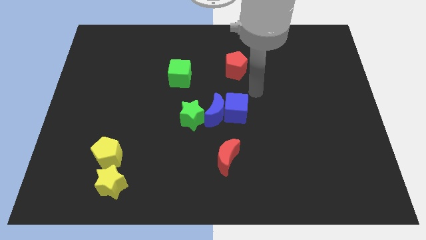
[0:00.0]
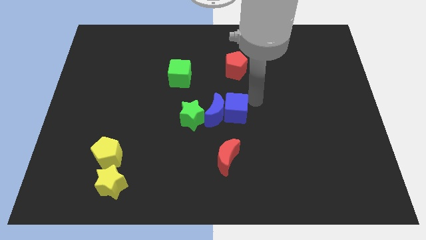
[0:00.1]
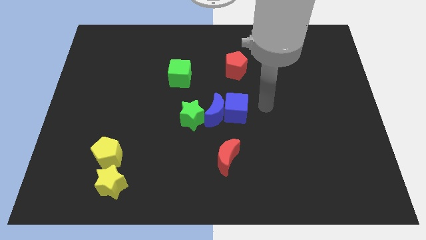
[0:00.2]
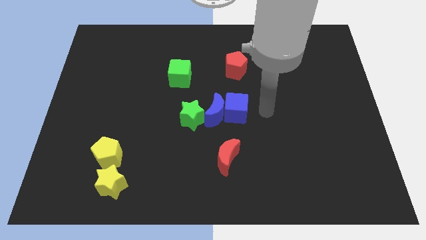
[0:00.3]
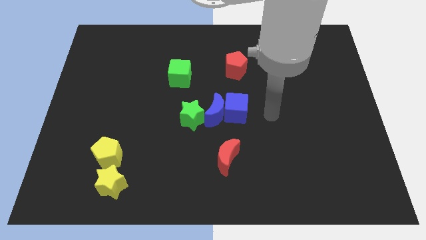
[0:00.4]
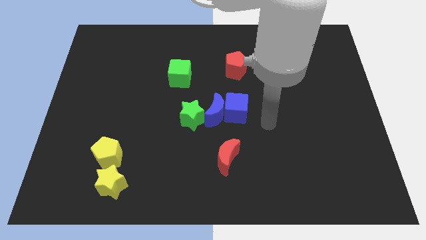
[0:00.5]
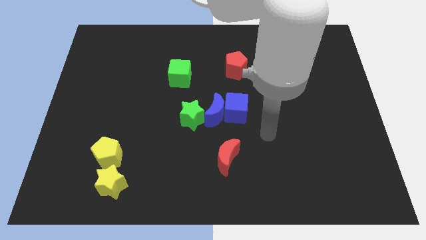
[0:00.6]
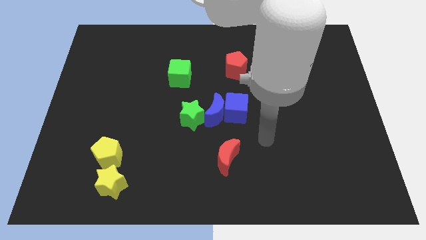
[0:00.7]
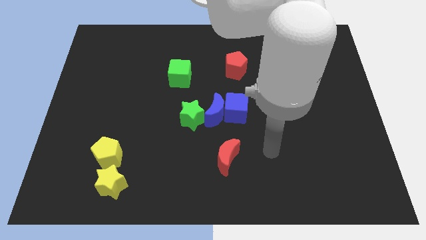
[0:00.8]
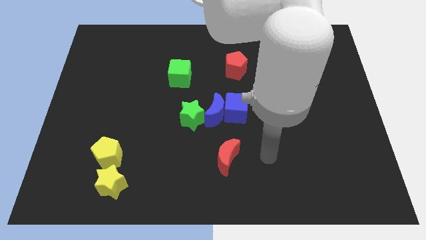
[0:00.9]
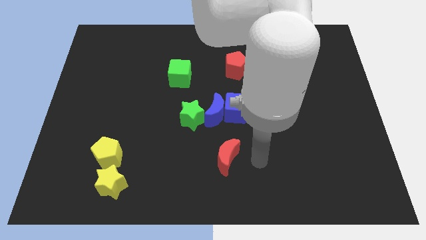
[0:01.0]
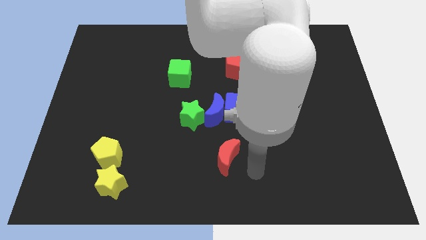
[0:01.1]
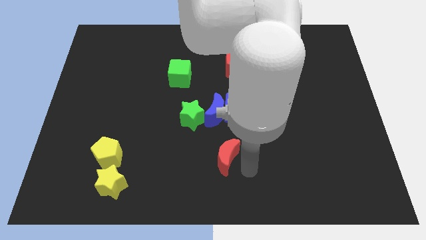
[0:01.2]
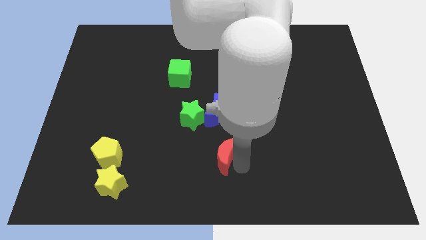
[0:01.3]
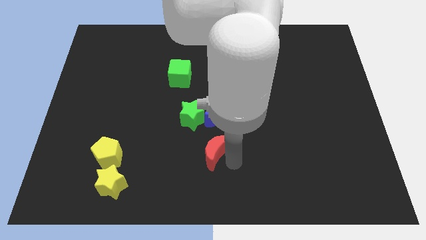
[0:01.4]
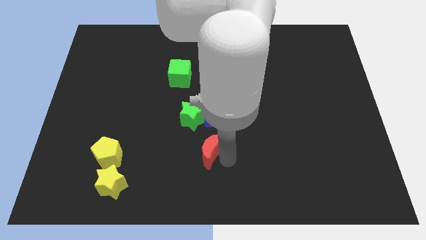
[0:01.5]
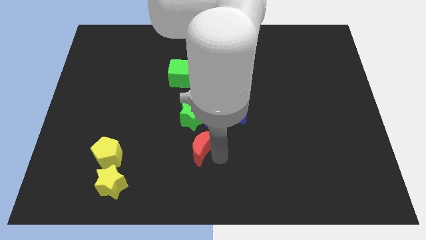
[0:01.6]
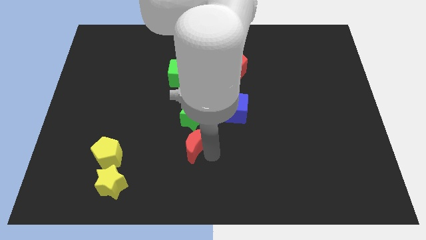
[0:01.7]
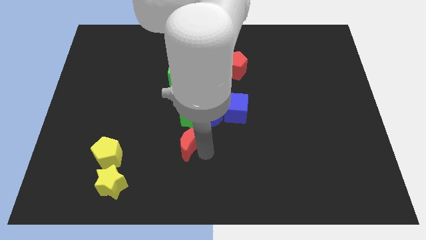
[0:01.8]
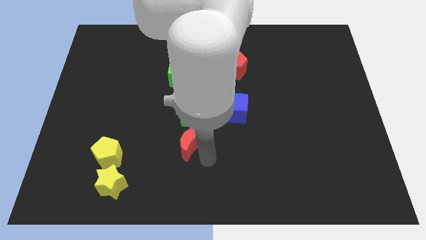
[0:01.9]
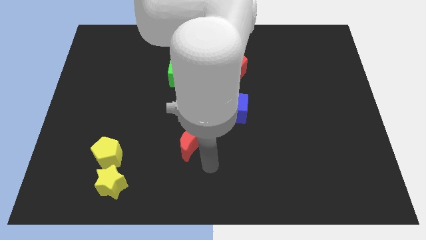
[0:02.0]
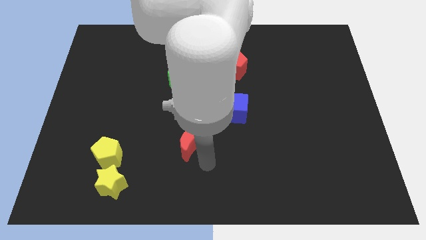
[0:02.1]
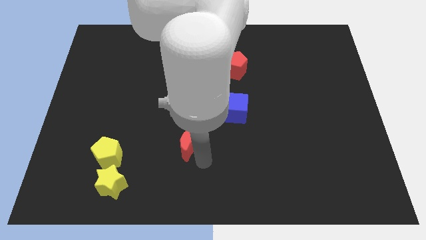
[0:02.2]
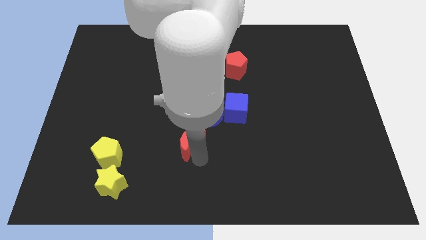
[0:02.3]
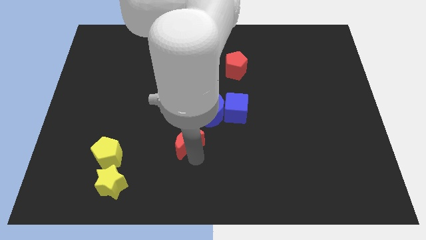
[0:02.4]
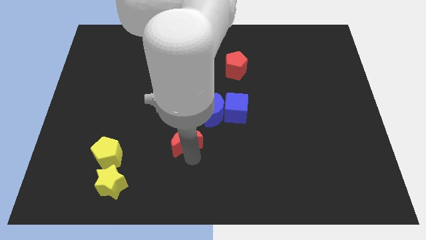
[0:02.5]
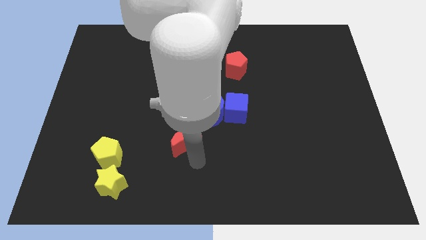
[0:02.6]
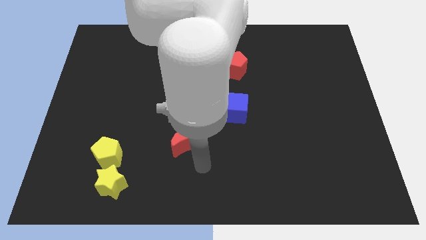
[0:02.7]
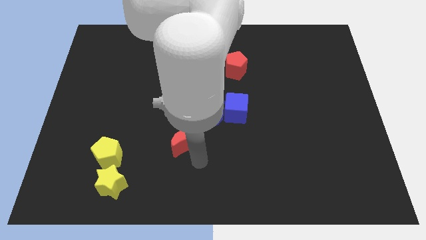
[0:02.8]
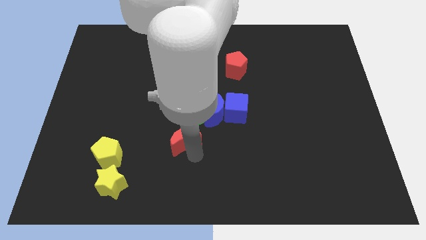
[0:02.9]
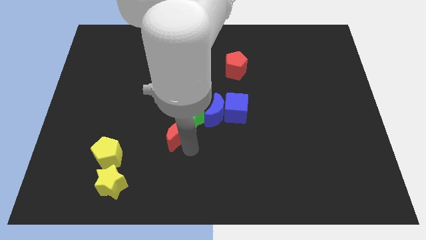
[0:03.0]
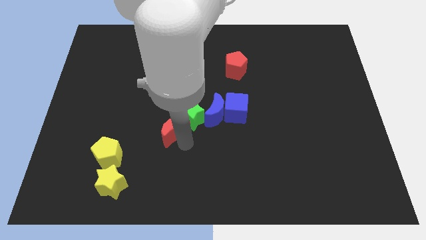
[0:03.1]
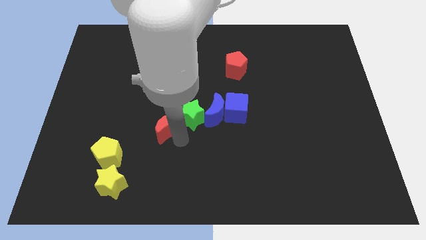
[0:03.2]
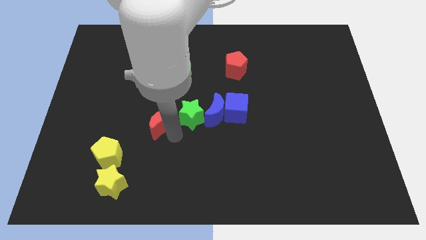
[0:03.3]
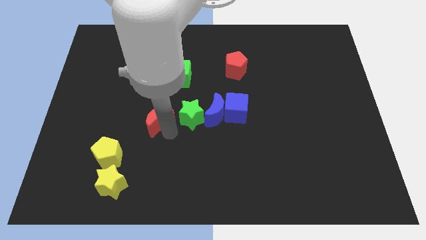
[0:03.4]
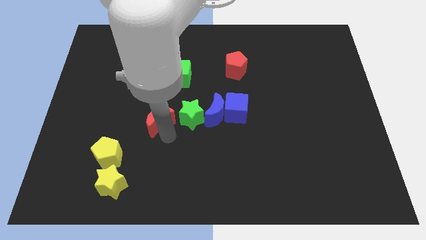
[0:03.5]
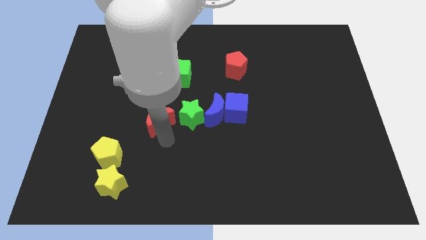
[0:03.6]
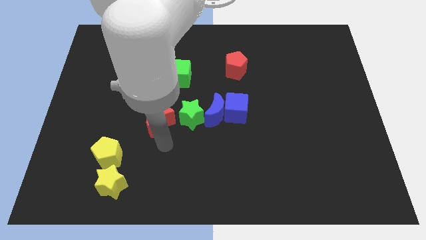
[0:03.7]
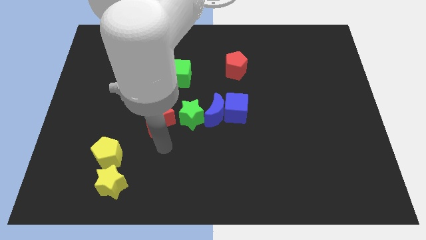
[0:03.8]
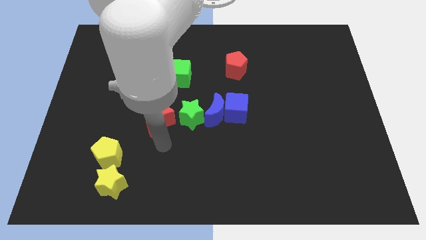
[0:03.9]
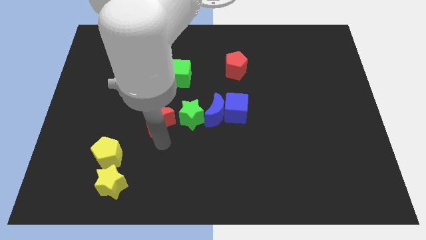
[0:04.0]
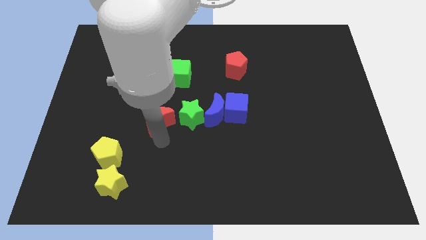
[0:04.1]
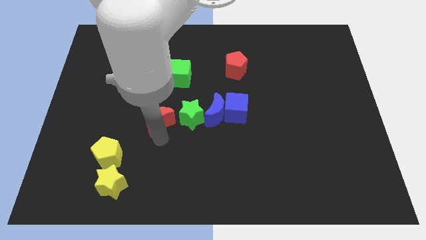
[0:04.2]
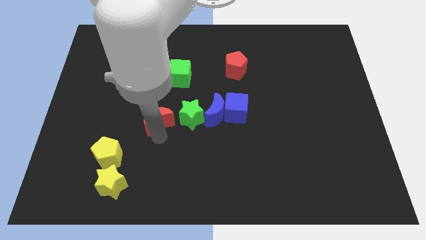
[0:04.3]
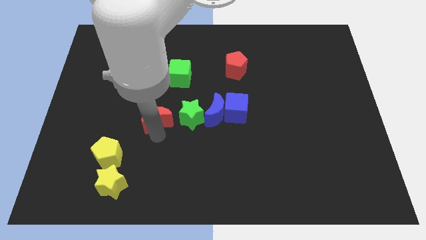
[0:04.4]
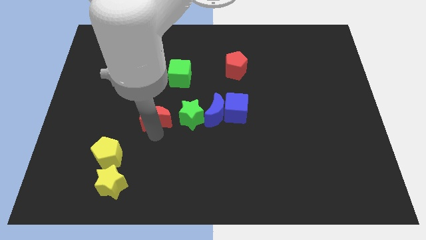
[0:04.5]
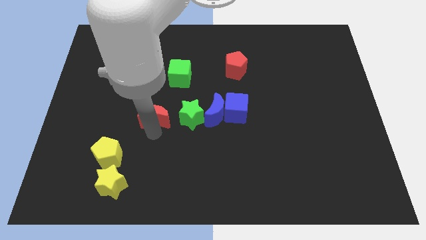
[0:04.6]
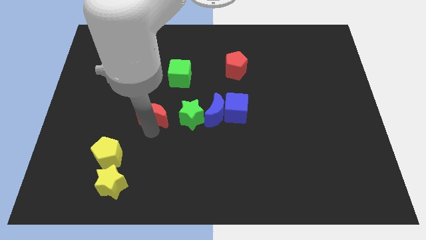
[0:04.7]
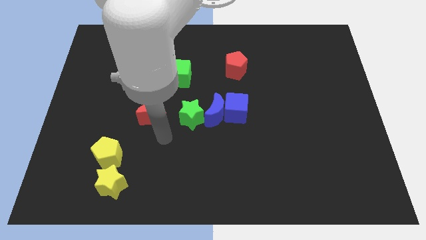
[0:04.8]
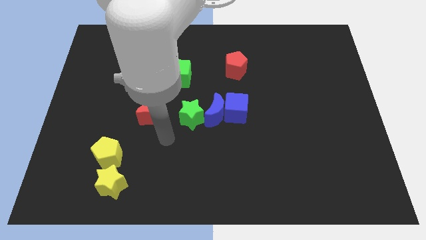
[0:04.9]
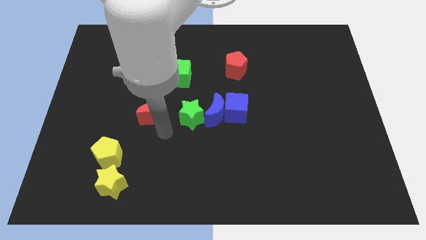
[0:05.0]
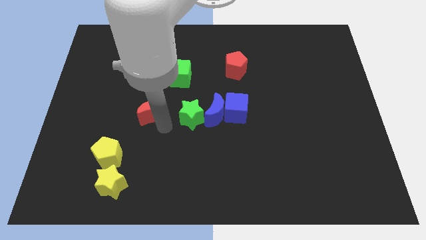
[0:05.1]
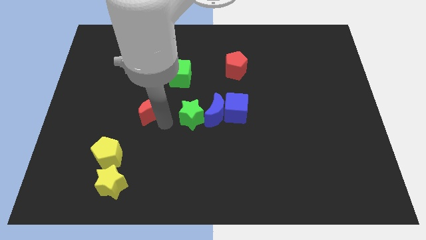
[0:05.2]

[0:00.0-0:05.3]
push the red moon up and left

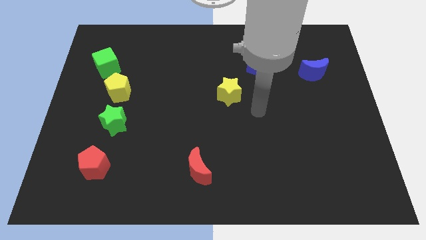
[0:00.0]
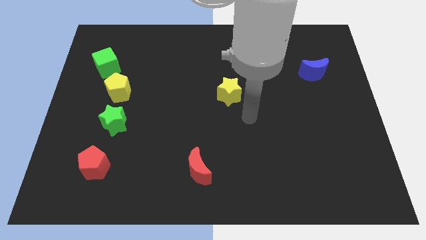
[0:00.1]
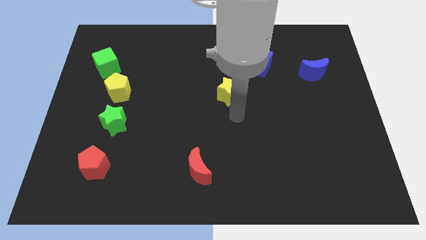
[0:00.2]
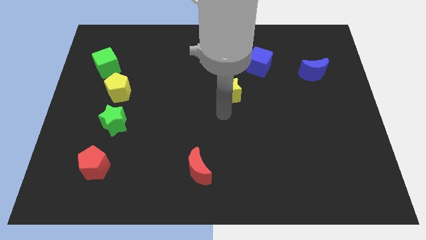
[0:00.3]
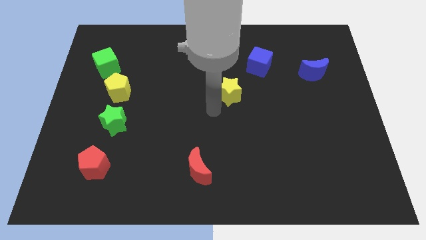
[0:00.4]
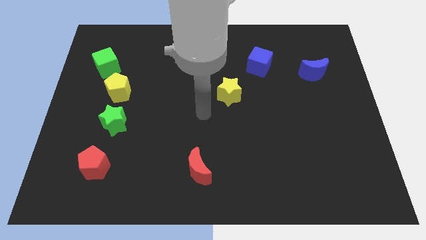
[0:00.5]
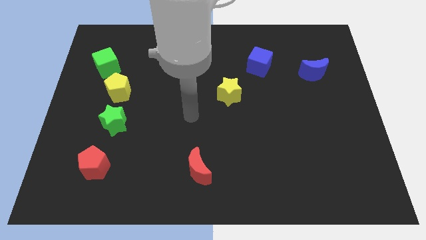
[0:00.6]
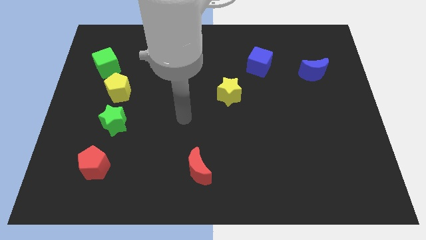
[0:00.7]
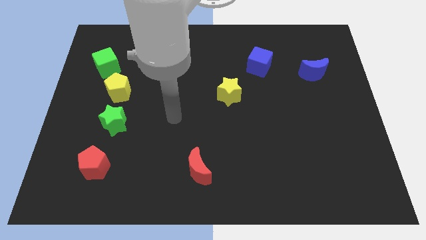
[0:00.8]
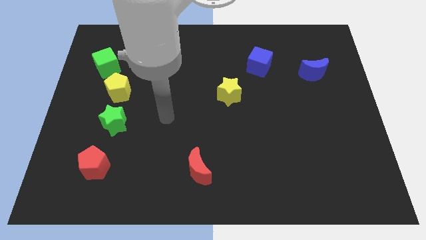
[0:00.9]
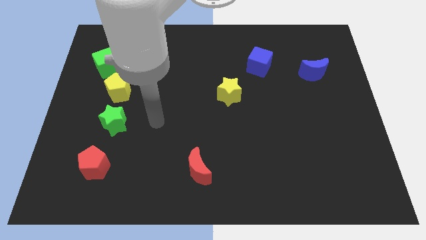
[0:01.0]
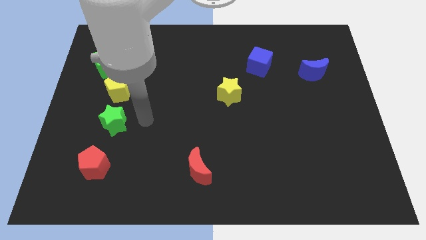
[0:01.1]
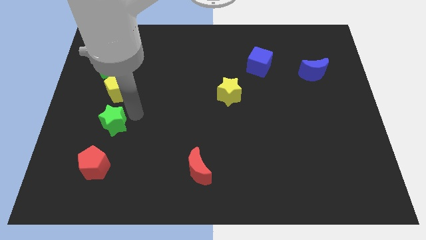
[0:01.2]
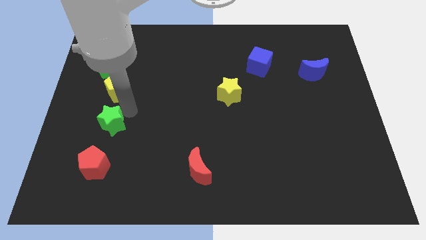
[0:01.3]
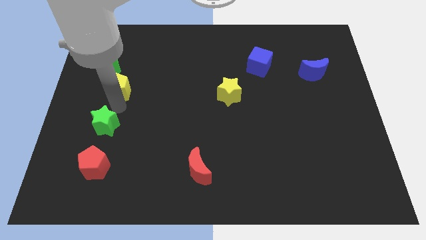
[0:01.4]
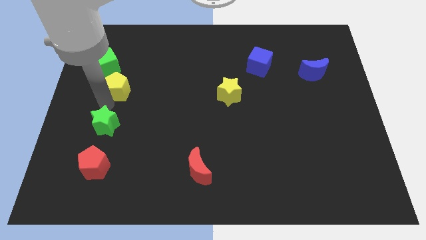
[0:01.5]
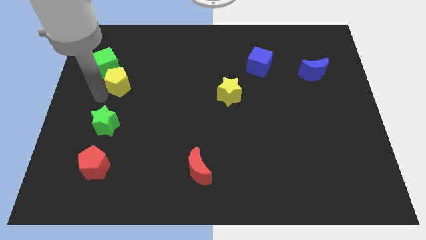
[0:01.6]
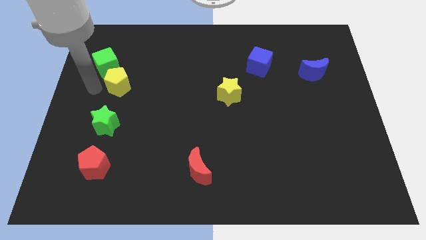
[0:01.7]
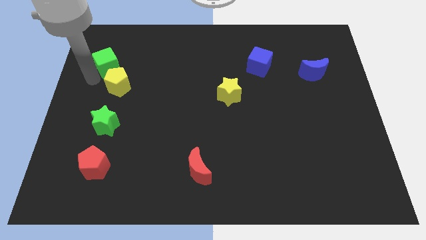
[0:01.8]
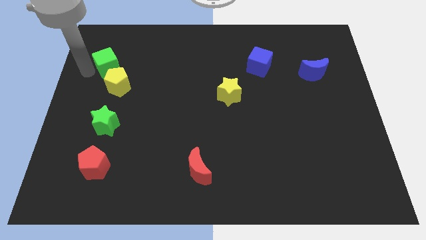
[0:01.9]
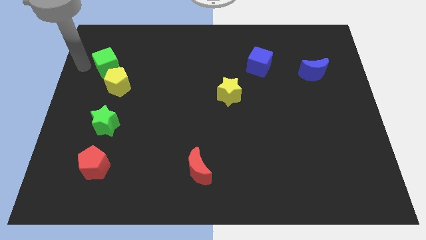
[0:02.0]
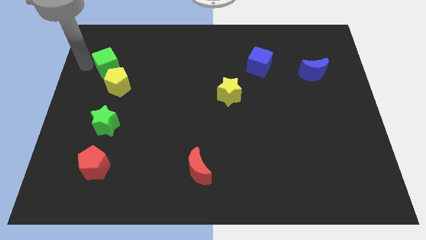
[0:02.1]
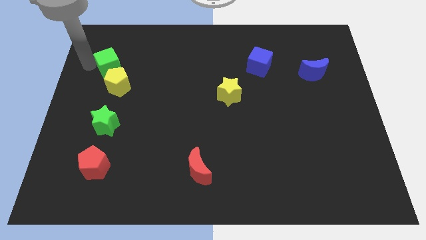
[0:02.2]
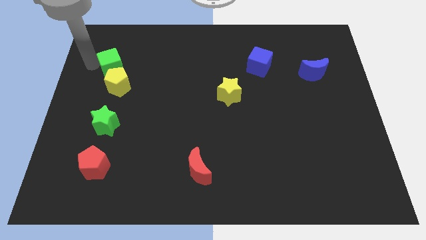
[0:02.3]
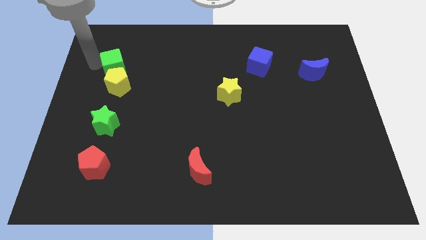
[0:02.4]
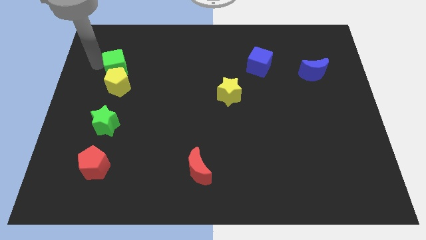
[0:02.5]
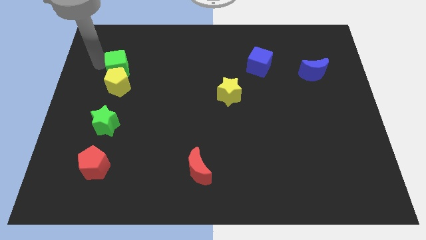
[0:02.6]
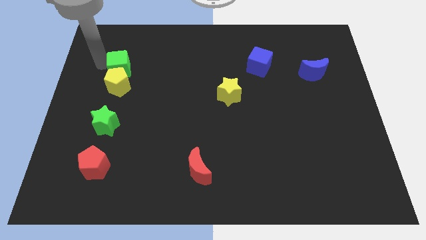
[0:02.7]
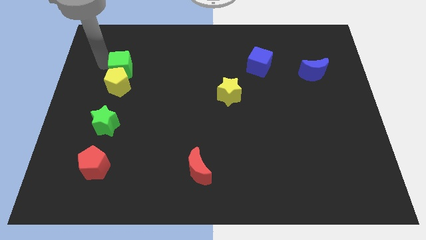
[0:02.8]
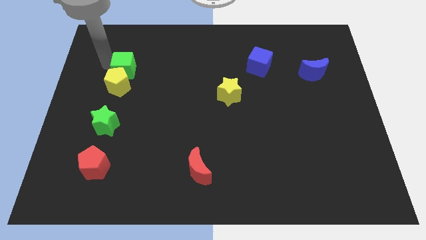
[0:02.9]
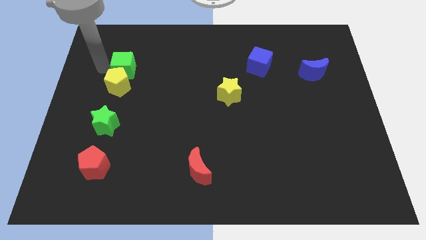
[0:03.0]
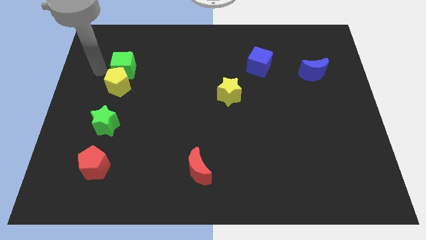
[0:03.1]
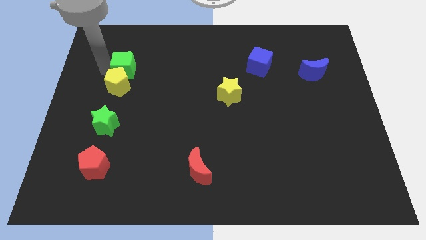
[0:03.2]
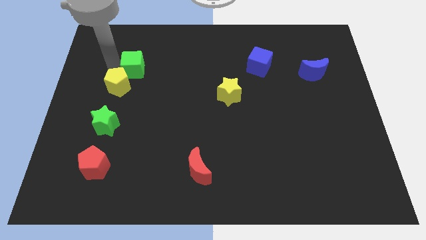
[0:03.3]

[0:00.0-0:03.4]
move the green cube to the right a little bit
